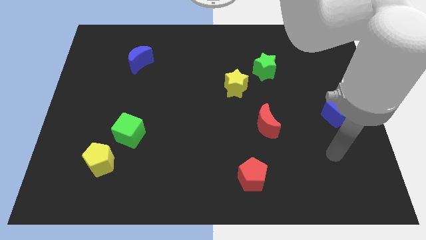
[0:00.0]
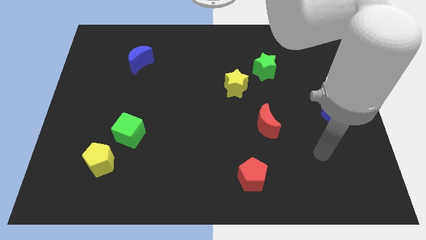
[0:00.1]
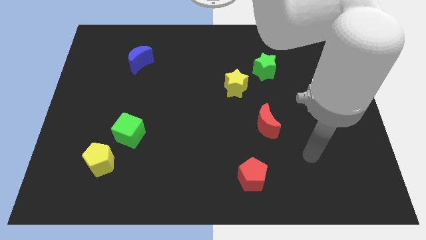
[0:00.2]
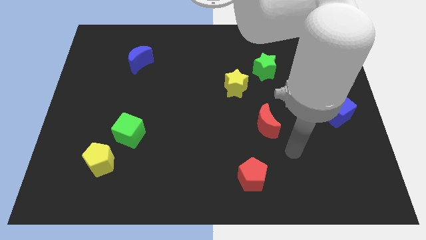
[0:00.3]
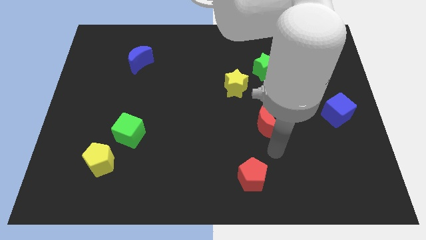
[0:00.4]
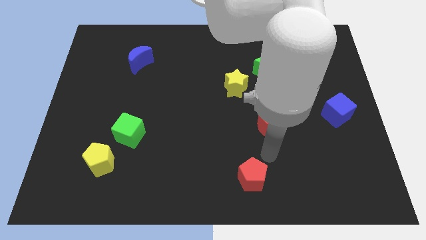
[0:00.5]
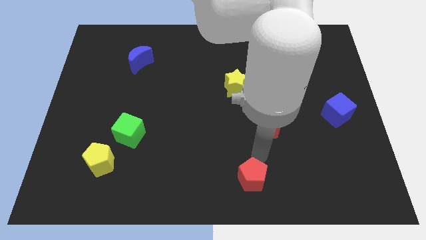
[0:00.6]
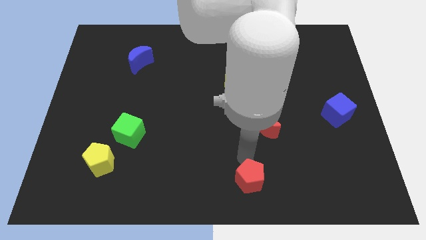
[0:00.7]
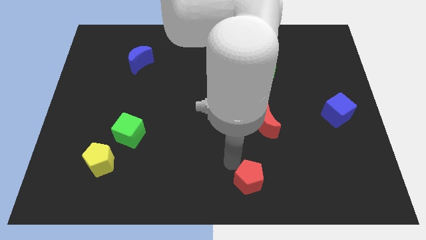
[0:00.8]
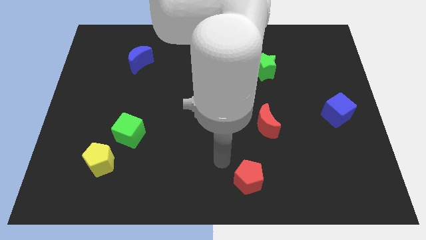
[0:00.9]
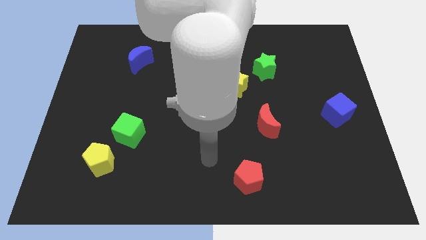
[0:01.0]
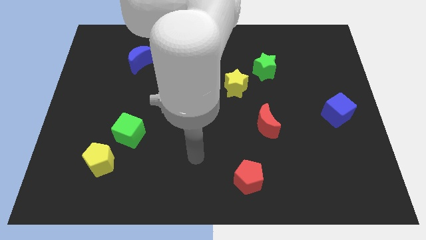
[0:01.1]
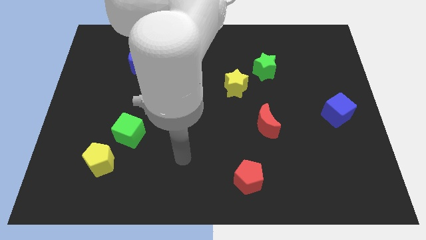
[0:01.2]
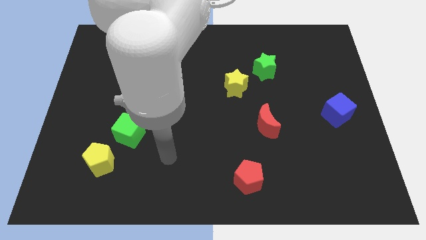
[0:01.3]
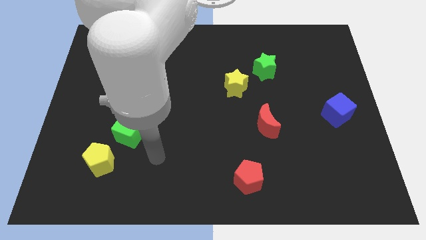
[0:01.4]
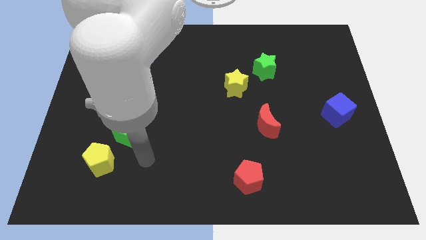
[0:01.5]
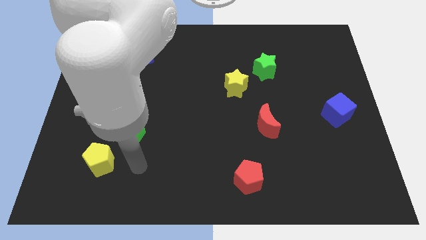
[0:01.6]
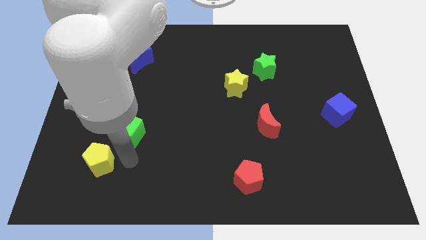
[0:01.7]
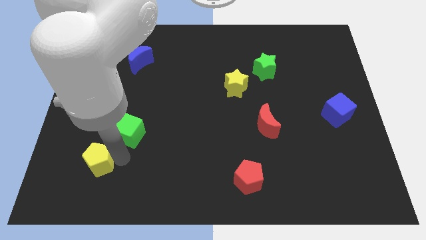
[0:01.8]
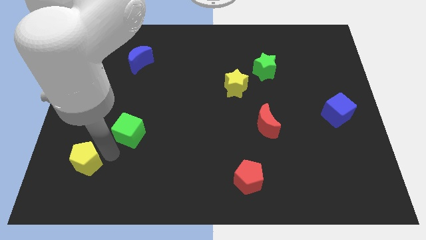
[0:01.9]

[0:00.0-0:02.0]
pull the green cube apart from the yellow pentagon

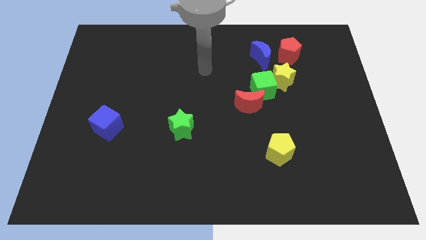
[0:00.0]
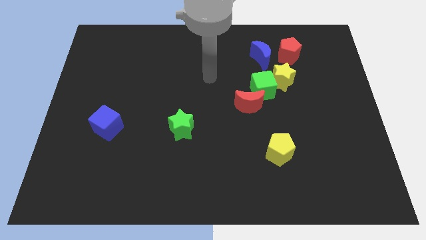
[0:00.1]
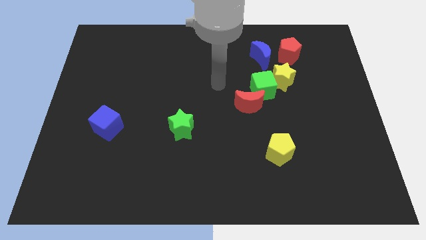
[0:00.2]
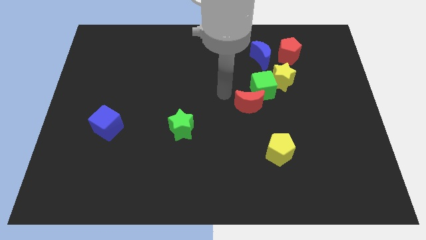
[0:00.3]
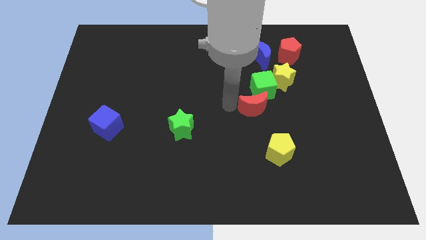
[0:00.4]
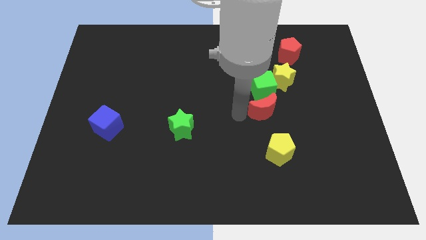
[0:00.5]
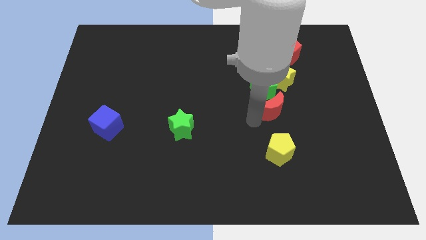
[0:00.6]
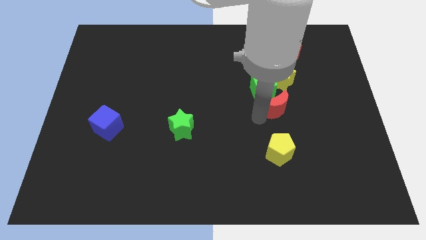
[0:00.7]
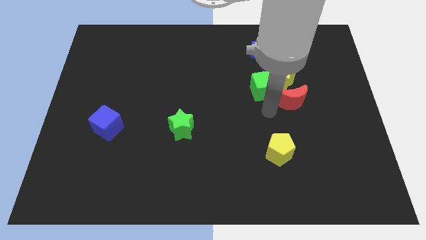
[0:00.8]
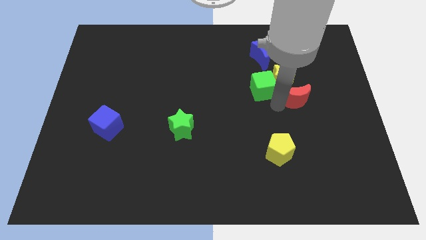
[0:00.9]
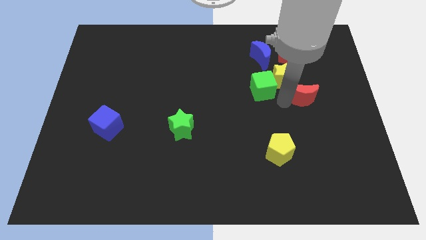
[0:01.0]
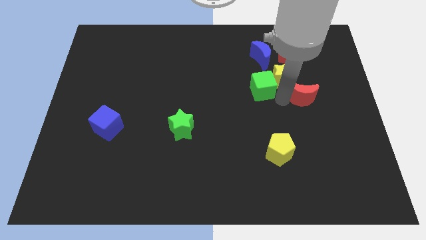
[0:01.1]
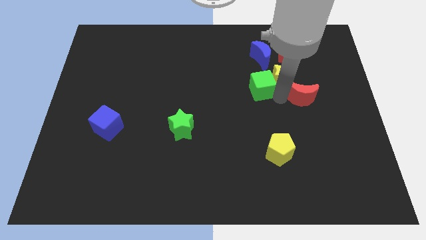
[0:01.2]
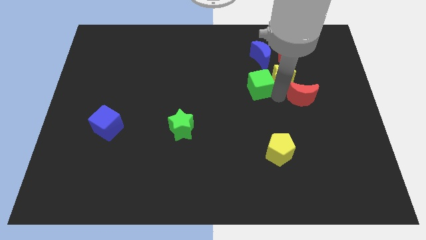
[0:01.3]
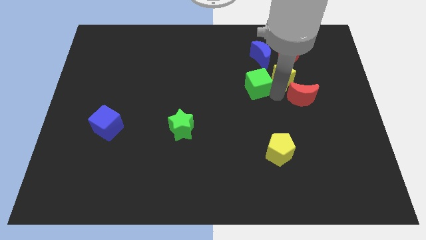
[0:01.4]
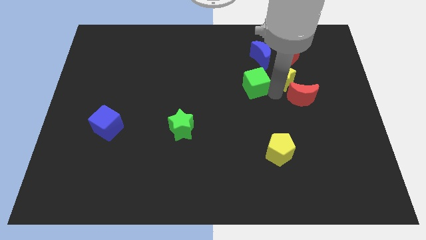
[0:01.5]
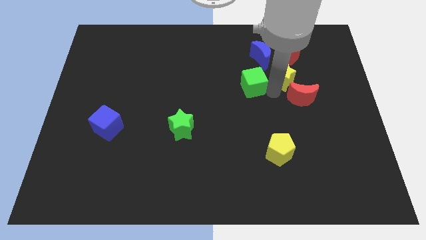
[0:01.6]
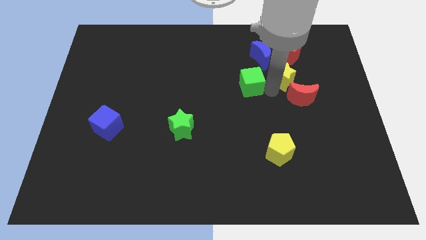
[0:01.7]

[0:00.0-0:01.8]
move the green cube away from the yellow star and red moon

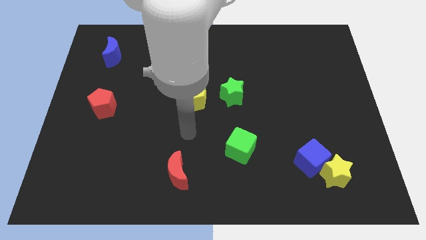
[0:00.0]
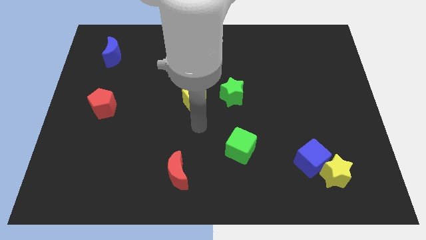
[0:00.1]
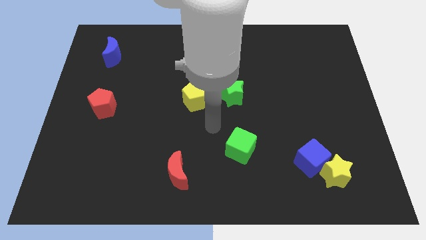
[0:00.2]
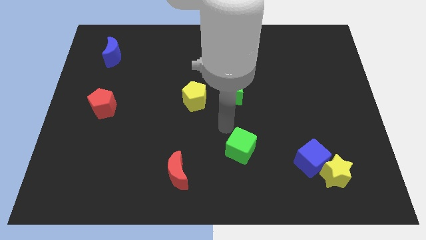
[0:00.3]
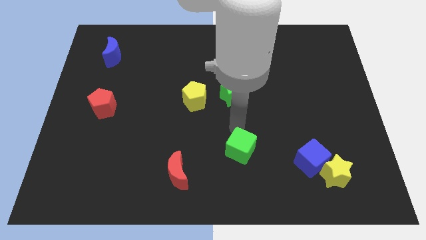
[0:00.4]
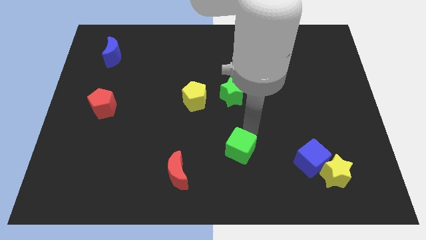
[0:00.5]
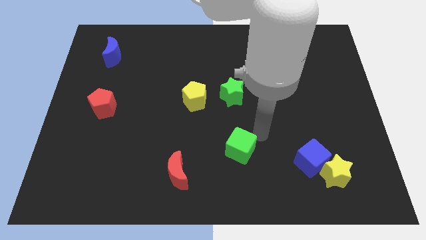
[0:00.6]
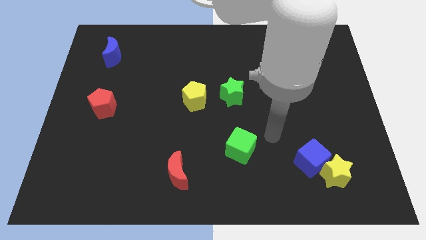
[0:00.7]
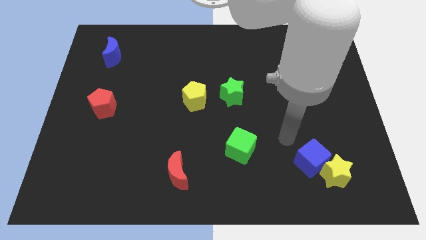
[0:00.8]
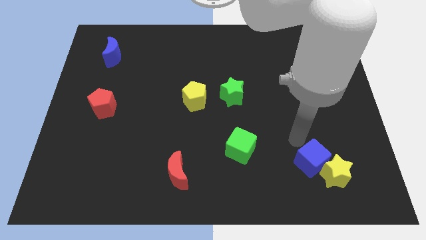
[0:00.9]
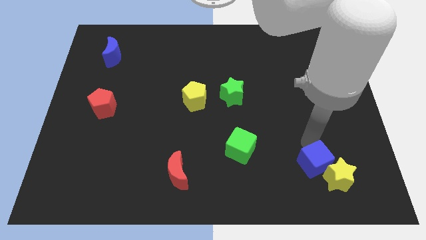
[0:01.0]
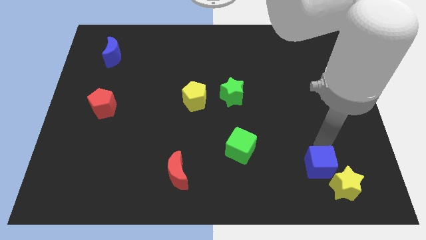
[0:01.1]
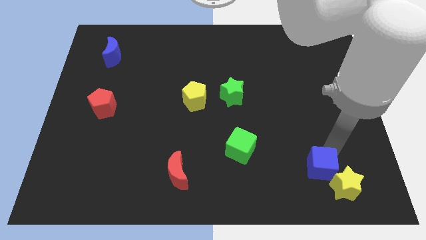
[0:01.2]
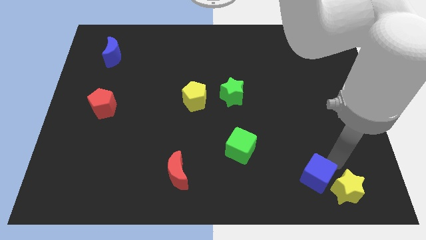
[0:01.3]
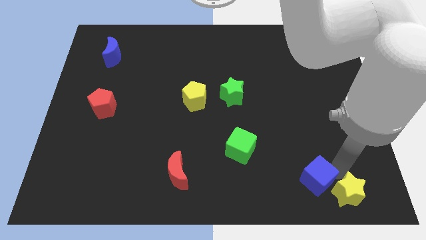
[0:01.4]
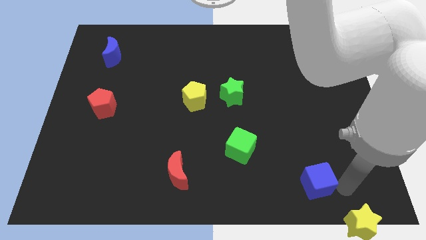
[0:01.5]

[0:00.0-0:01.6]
pull the blue cube apart from the yellow star

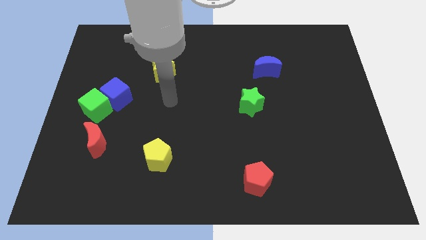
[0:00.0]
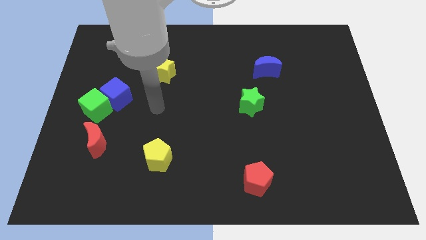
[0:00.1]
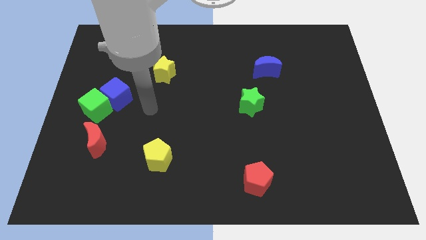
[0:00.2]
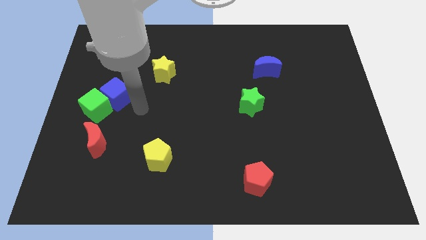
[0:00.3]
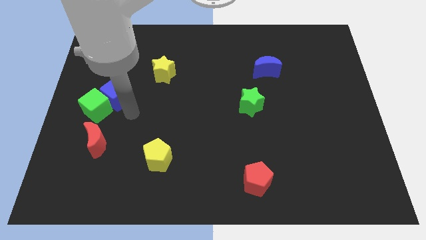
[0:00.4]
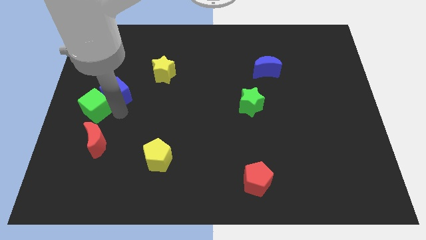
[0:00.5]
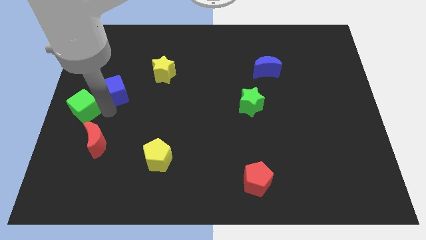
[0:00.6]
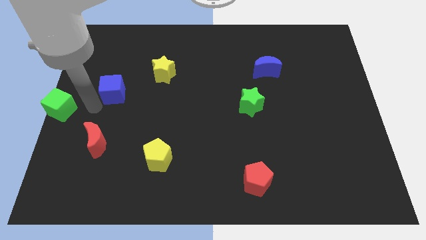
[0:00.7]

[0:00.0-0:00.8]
pull the blue cube apart from the green cube

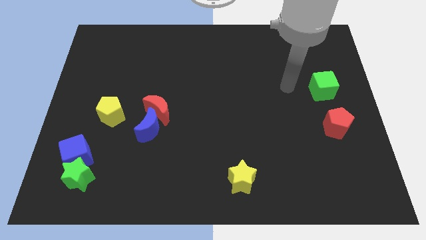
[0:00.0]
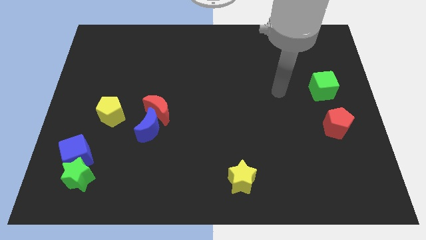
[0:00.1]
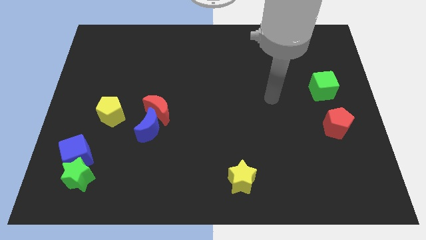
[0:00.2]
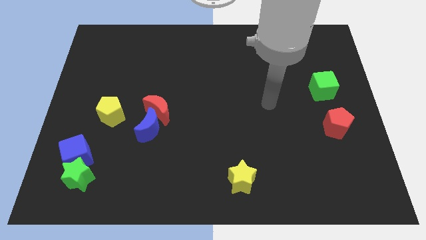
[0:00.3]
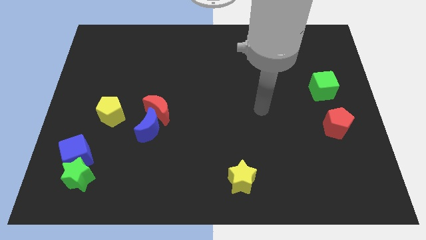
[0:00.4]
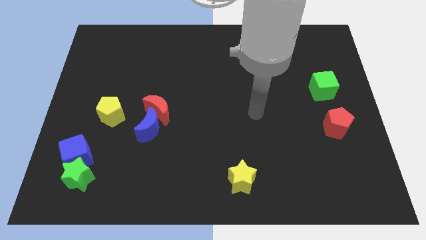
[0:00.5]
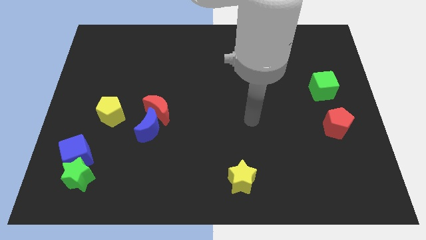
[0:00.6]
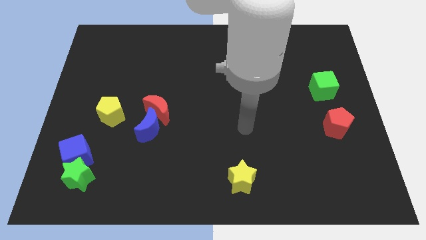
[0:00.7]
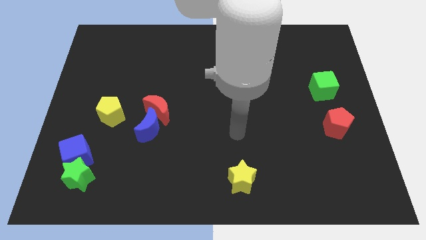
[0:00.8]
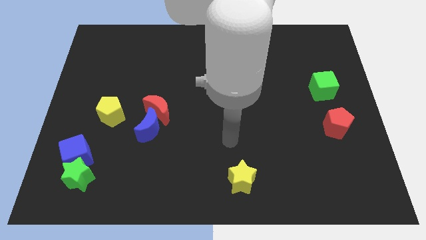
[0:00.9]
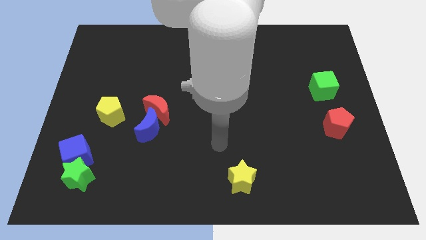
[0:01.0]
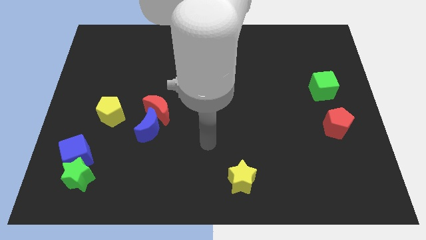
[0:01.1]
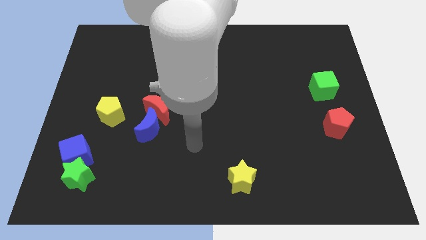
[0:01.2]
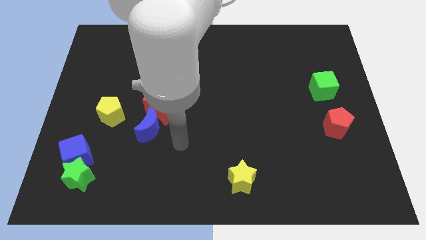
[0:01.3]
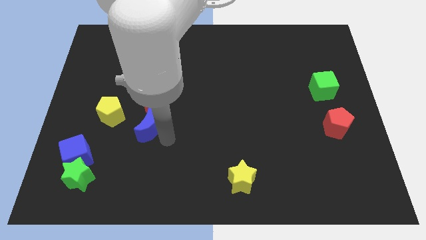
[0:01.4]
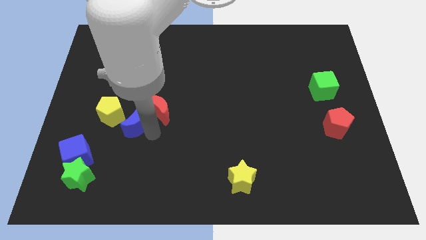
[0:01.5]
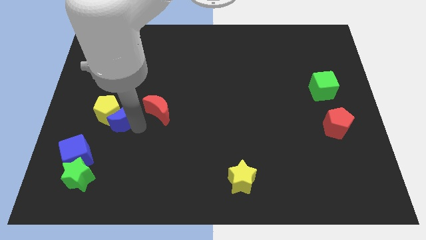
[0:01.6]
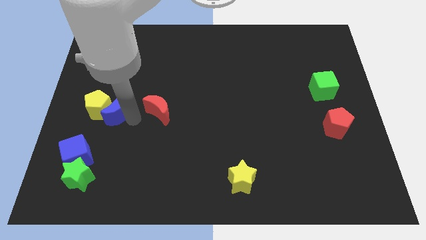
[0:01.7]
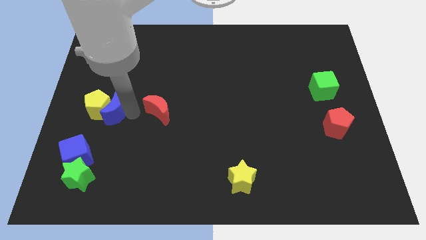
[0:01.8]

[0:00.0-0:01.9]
pull the red moon apart from the blue moon

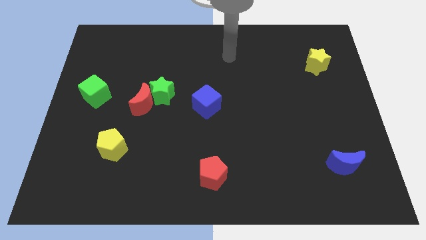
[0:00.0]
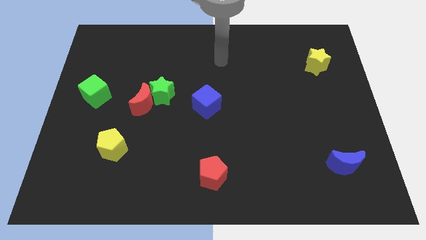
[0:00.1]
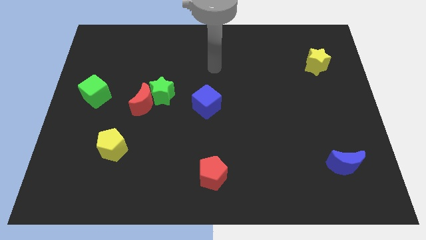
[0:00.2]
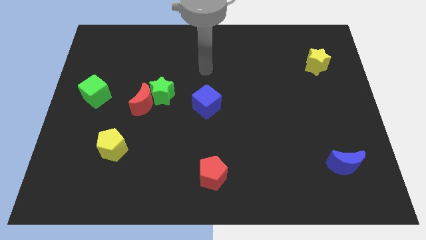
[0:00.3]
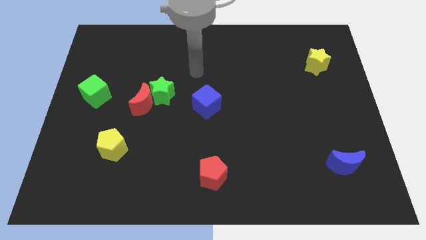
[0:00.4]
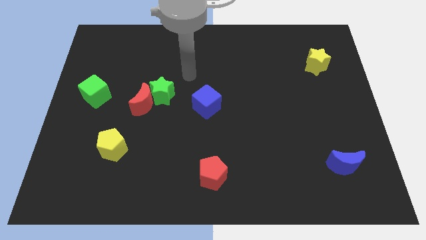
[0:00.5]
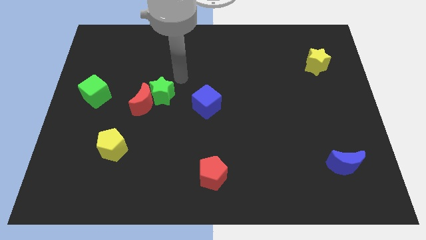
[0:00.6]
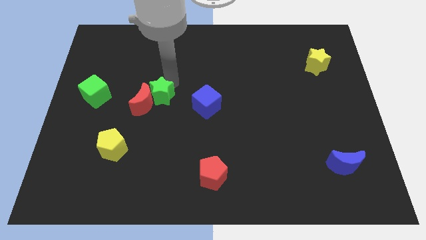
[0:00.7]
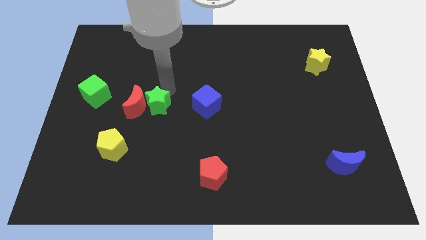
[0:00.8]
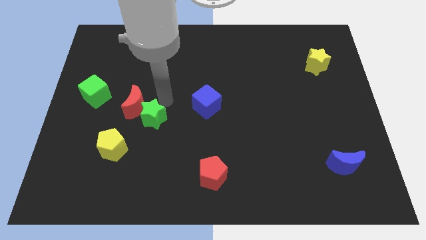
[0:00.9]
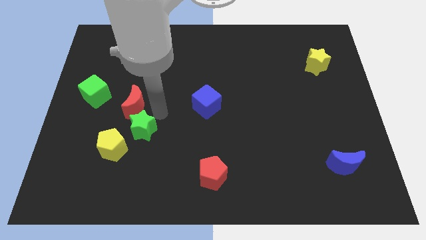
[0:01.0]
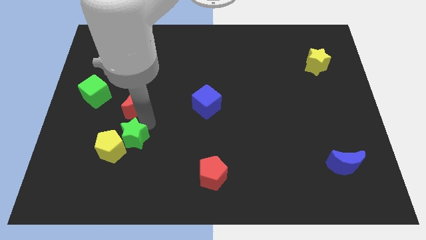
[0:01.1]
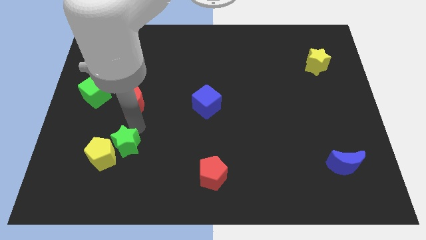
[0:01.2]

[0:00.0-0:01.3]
separate the red moon from the green star
